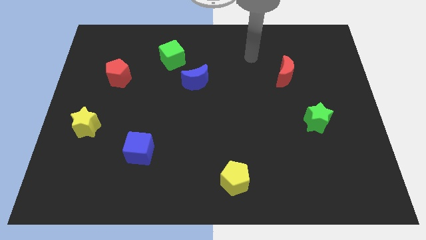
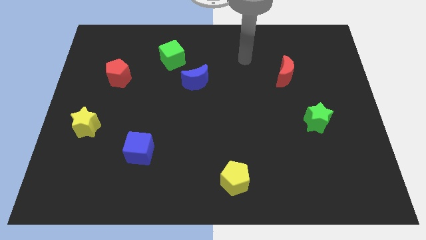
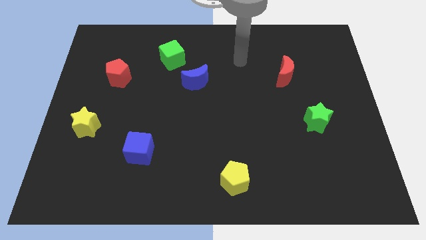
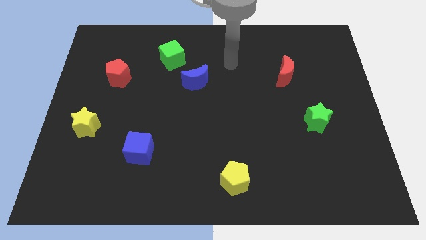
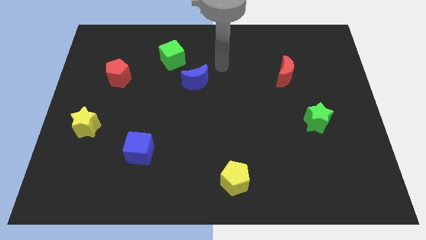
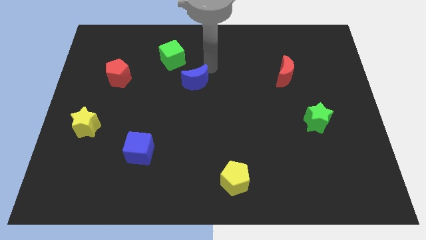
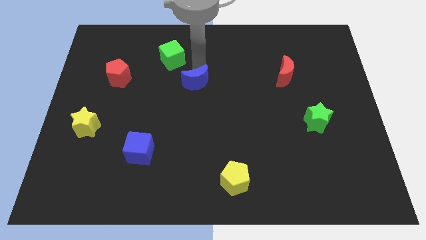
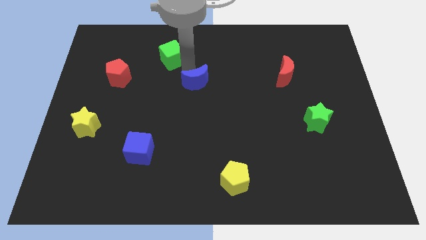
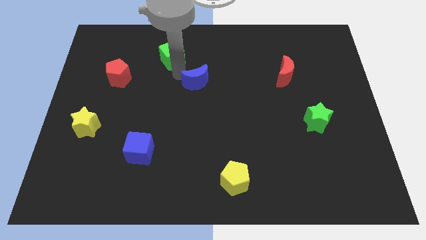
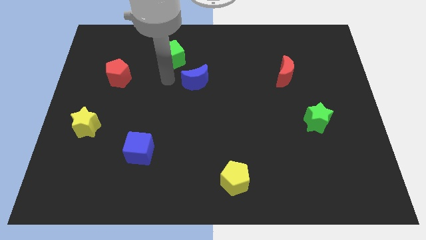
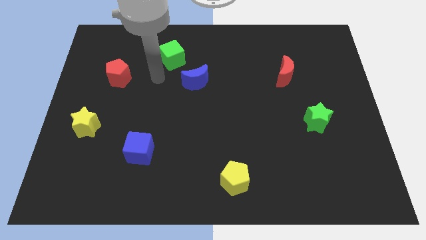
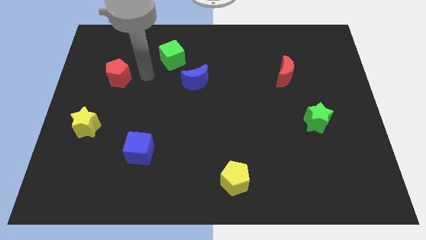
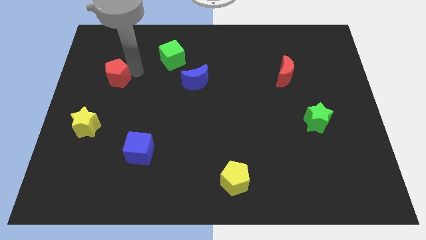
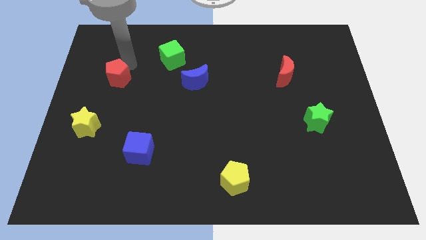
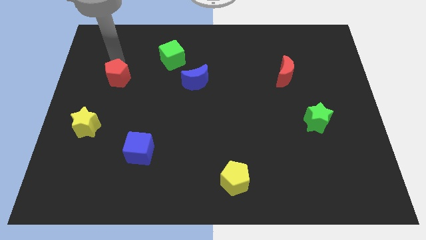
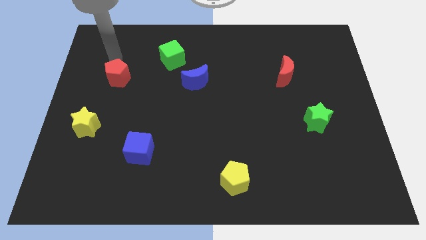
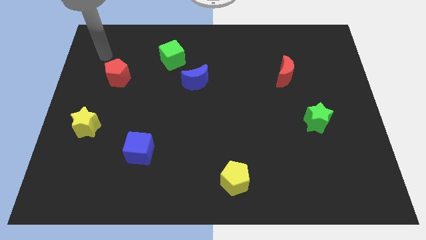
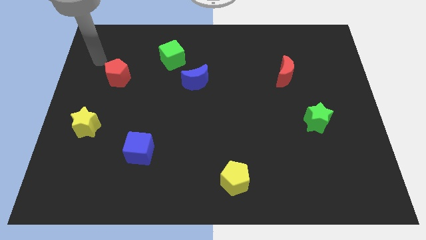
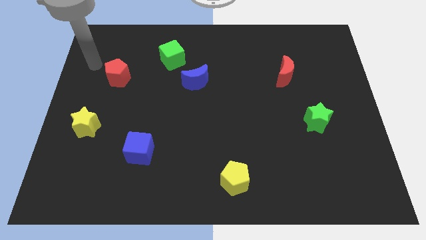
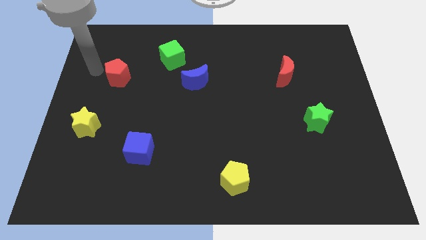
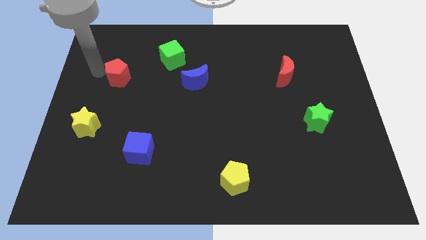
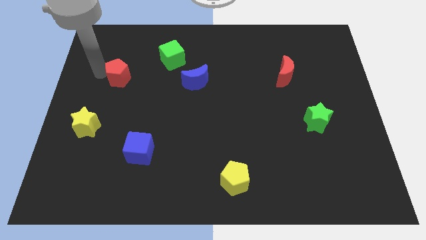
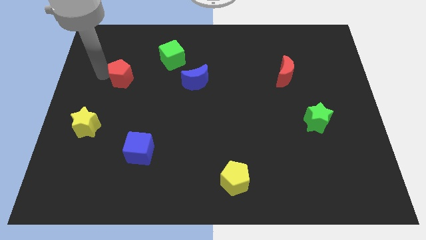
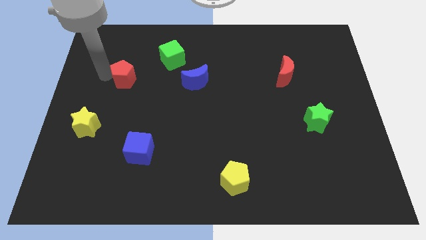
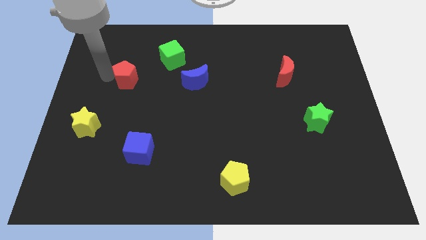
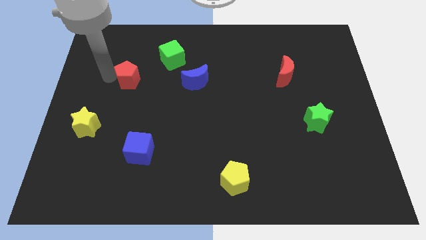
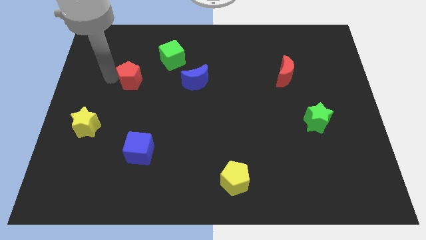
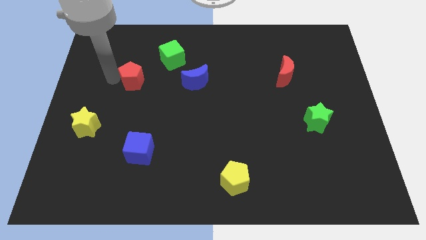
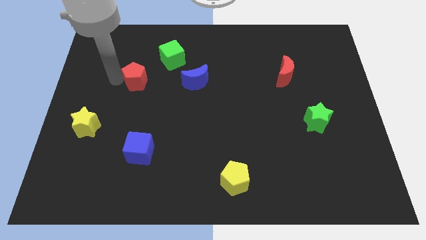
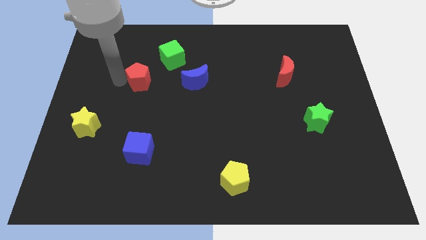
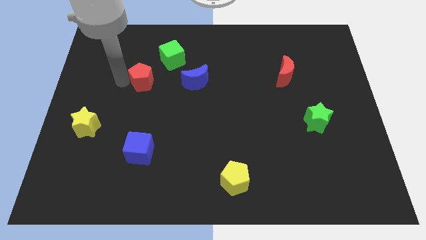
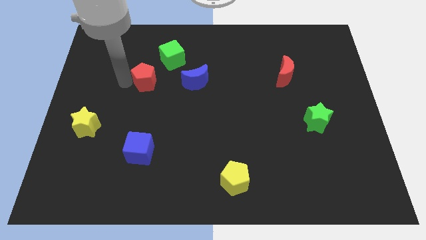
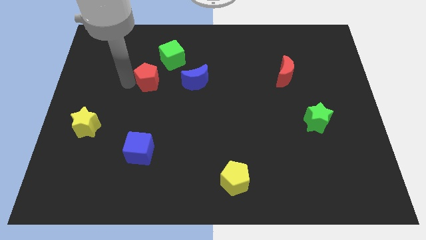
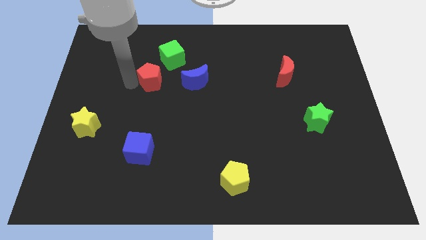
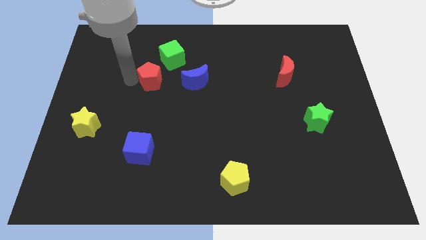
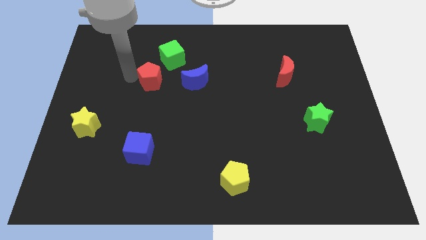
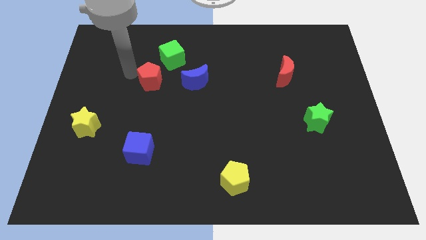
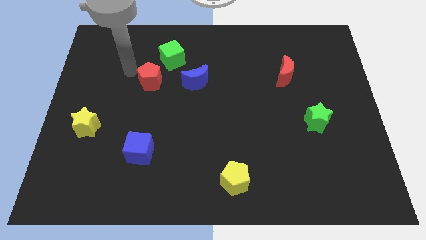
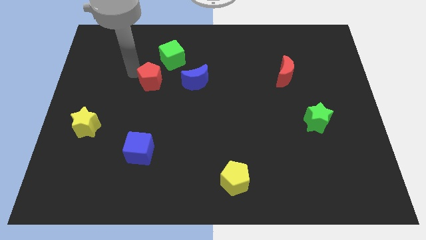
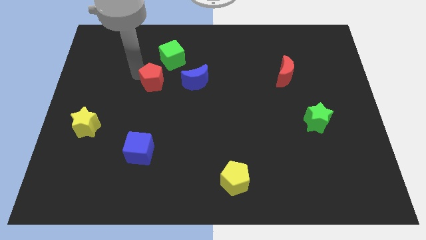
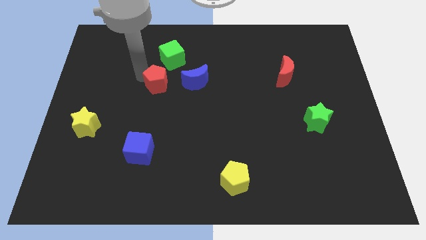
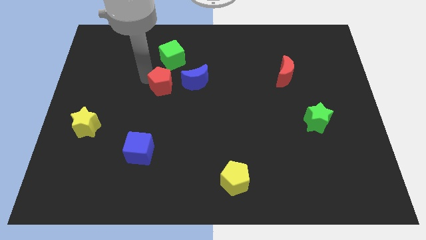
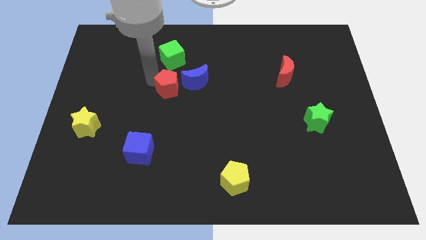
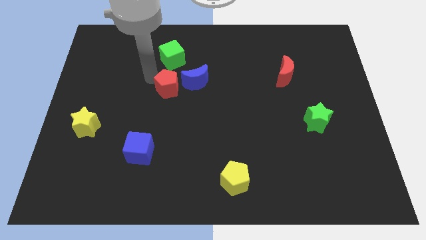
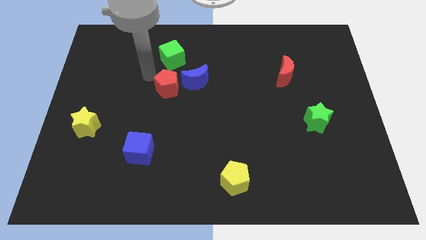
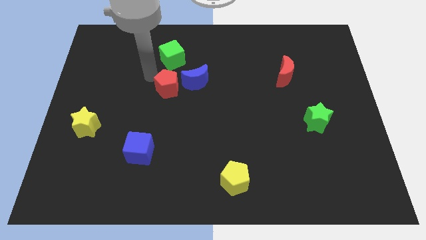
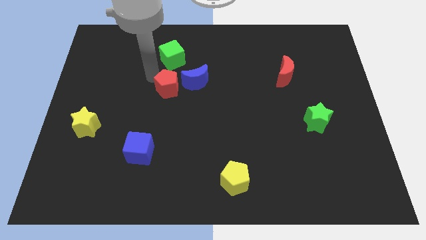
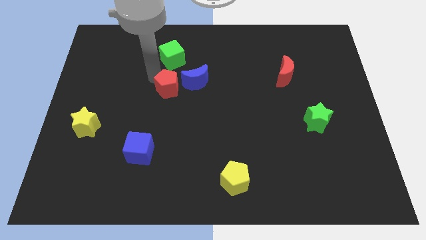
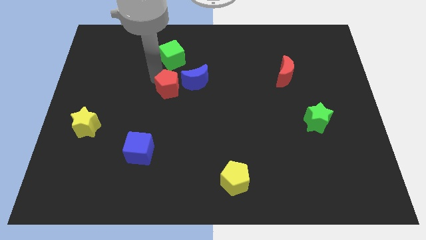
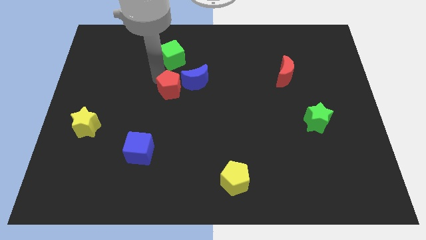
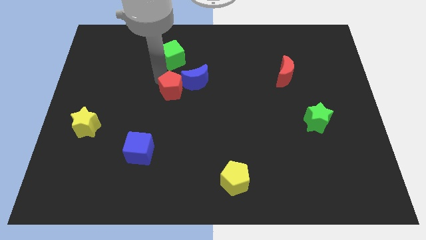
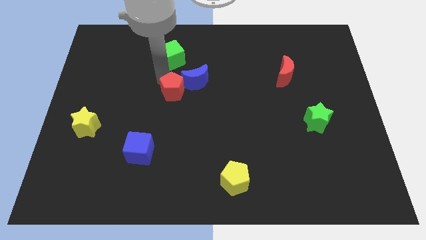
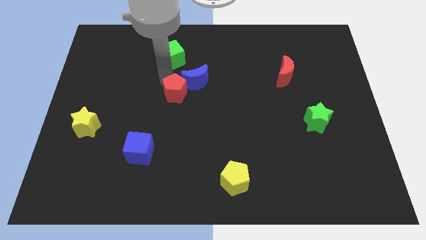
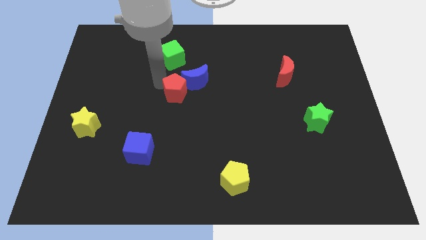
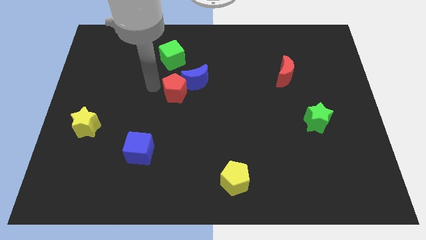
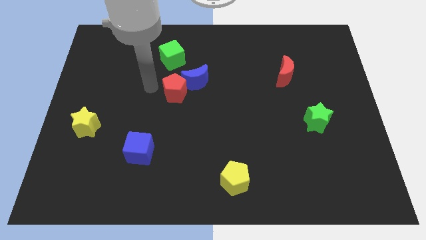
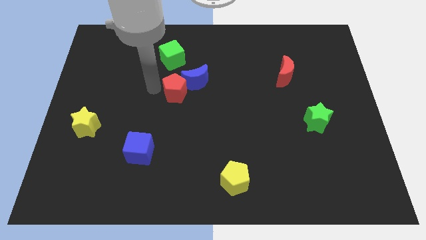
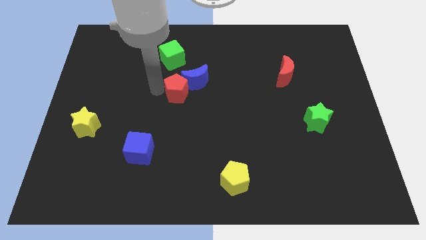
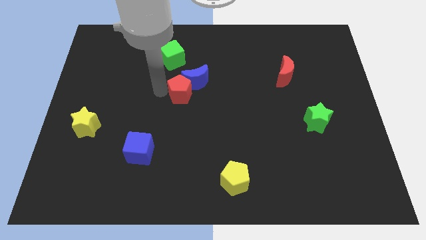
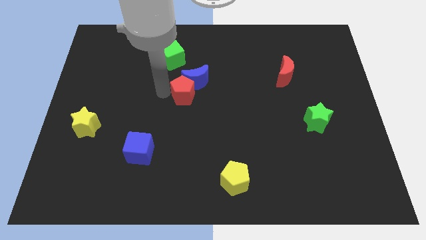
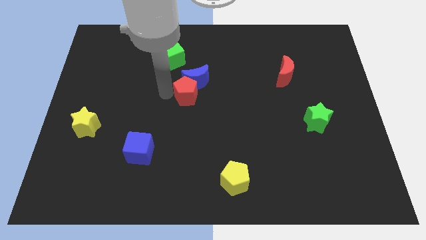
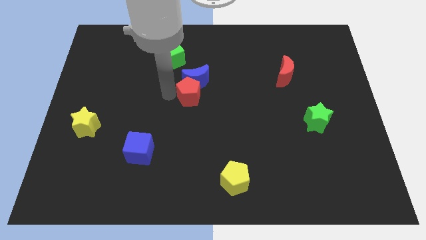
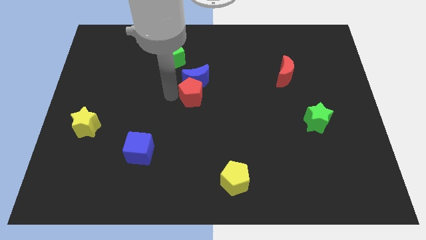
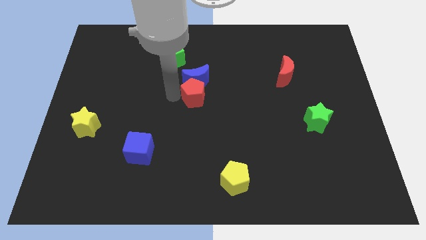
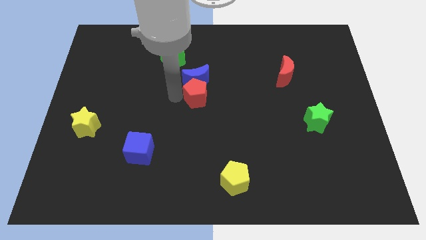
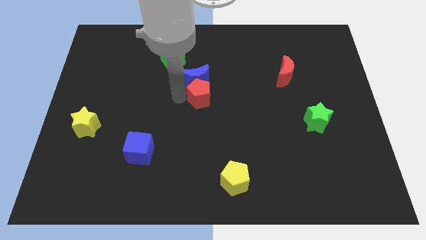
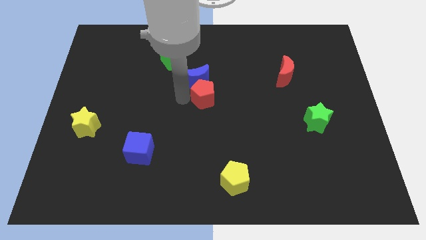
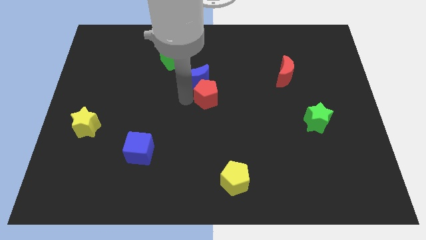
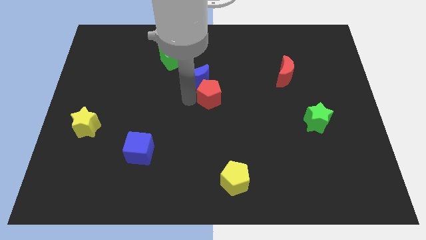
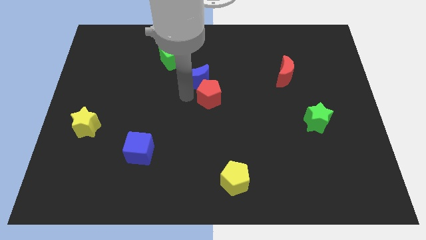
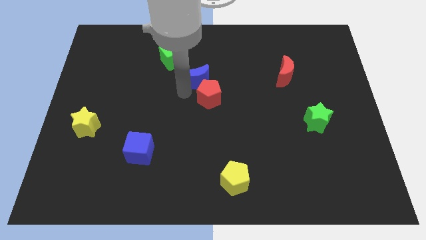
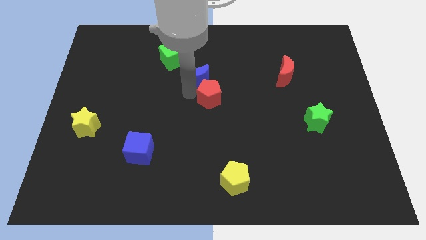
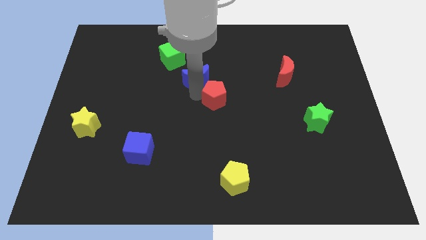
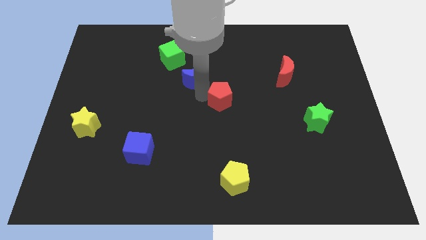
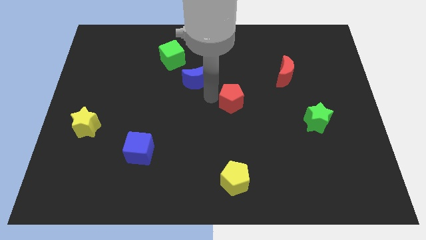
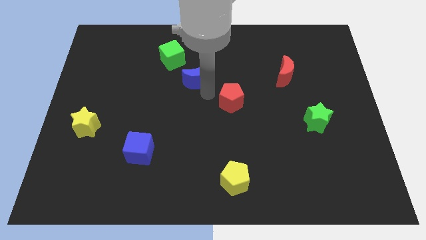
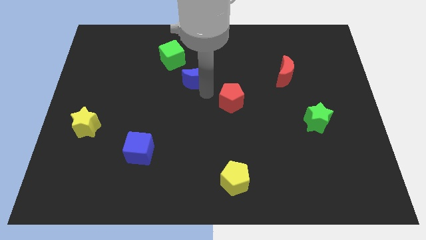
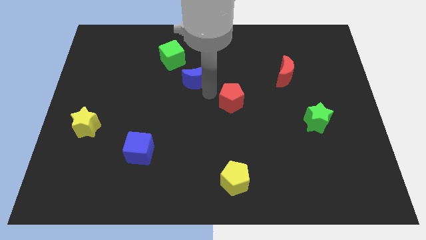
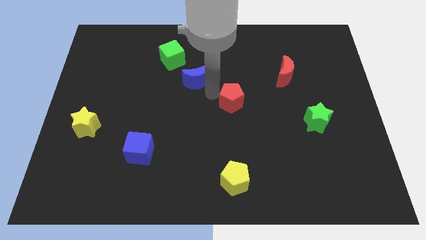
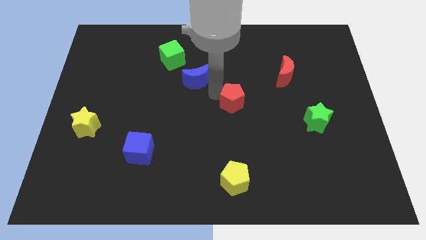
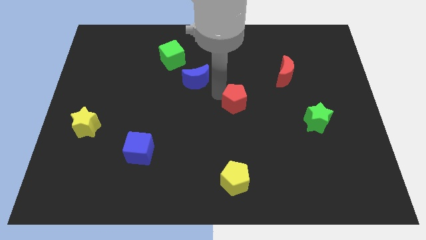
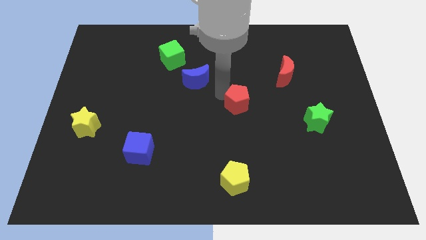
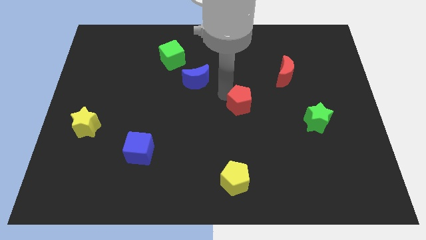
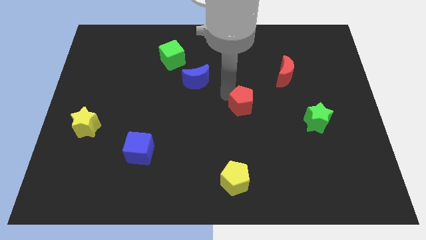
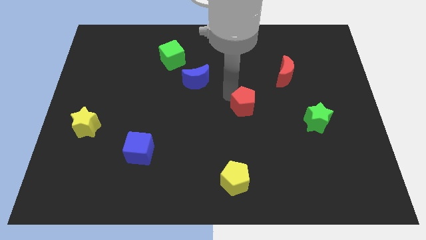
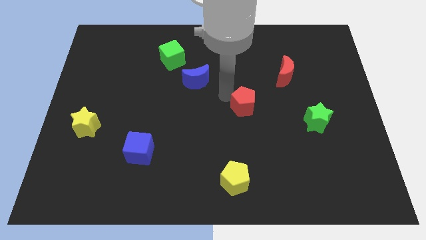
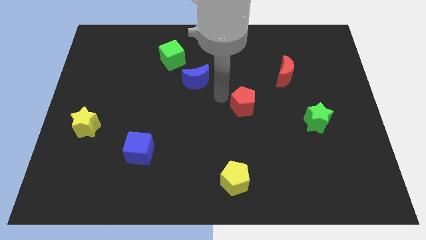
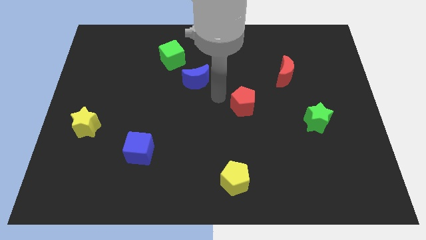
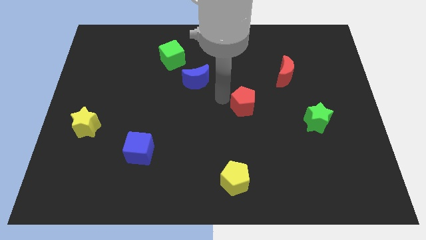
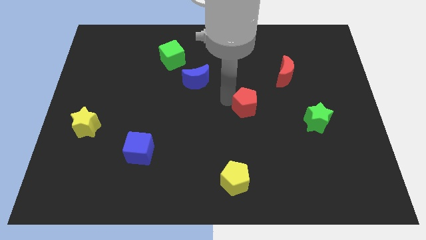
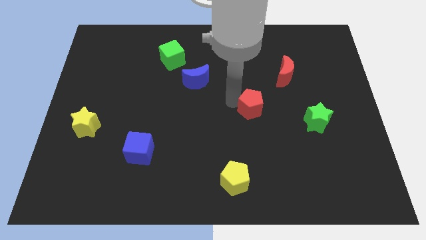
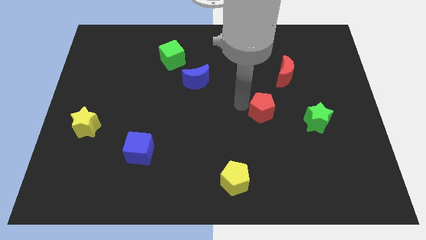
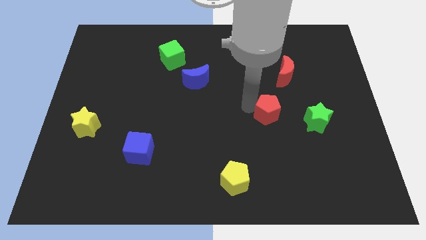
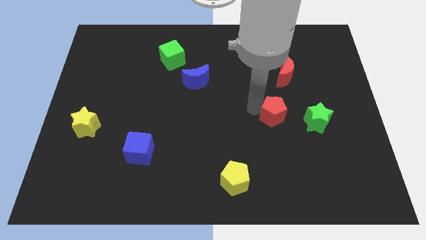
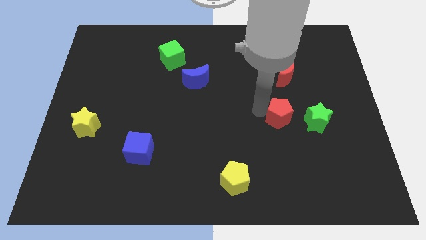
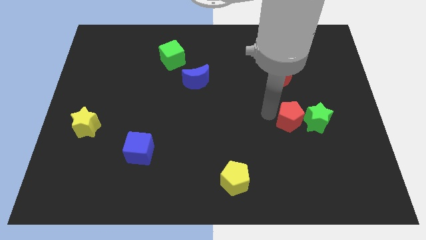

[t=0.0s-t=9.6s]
put the red pentagon towards the green star
